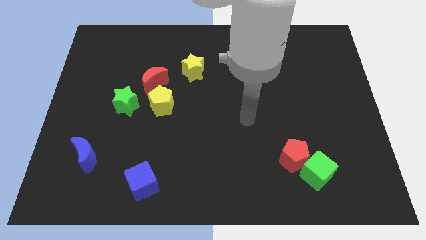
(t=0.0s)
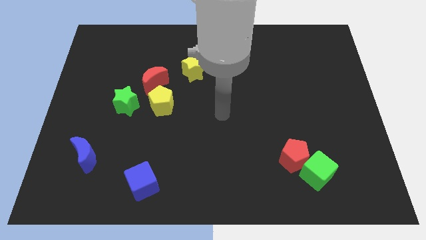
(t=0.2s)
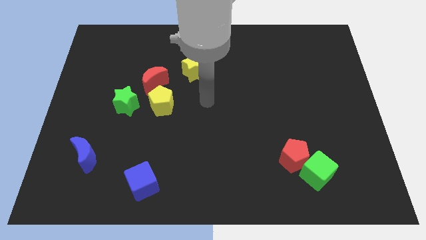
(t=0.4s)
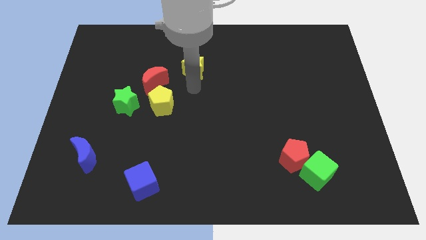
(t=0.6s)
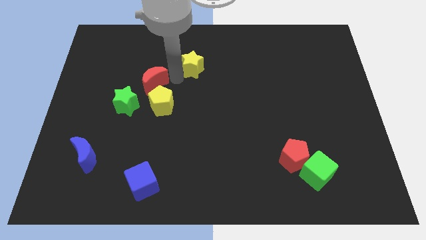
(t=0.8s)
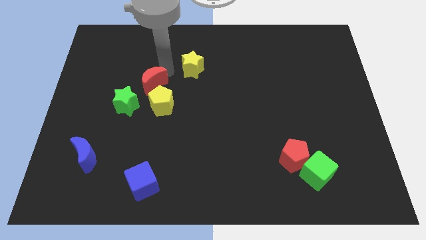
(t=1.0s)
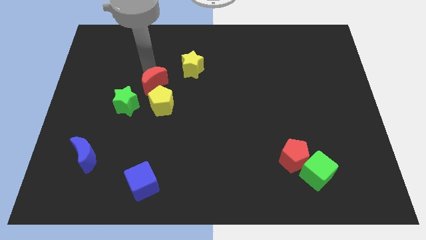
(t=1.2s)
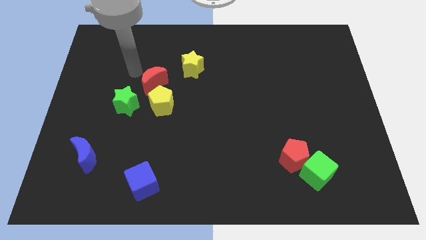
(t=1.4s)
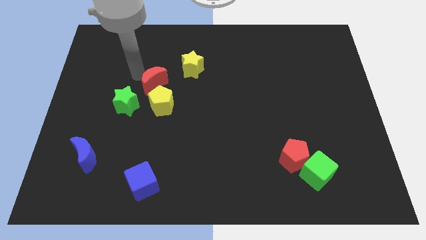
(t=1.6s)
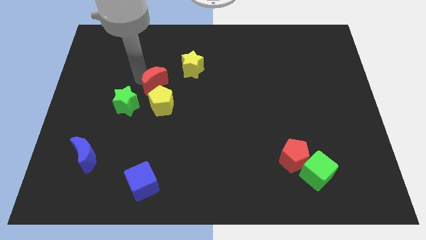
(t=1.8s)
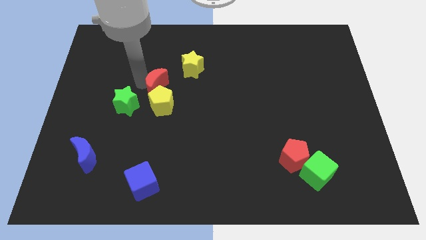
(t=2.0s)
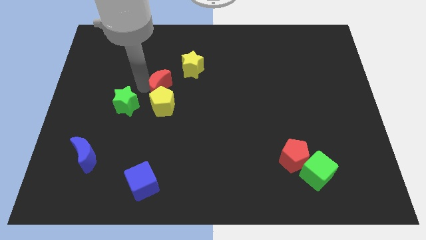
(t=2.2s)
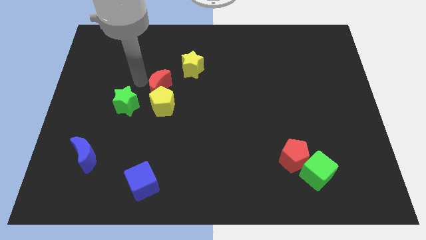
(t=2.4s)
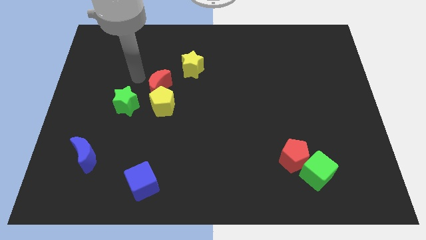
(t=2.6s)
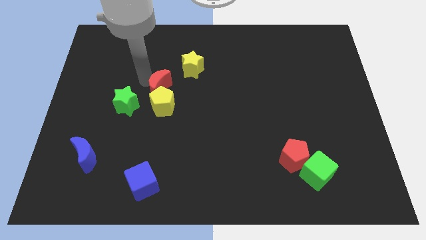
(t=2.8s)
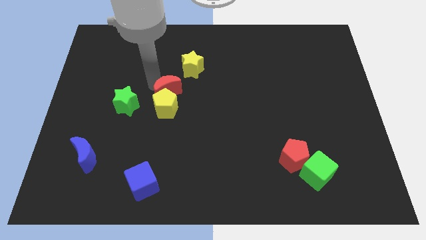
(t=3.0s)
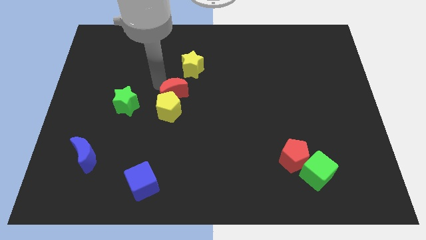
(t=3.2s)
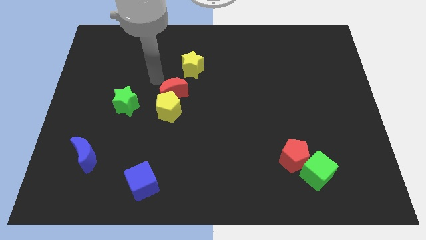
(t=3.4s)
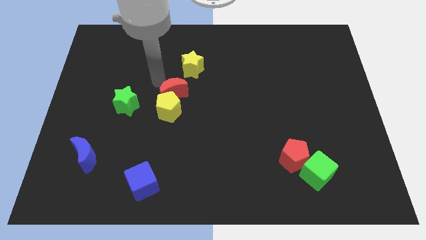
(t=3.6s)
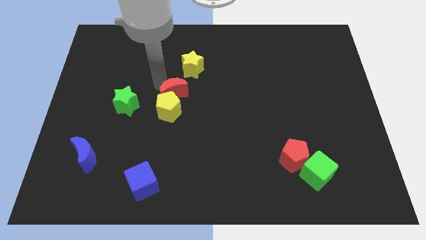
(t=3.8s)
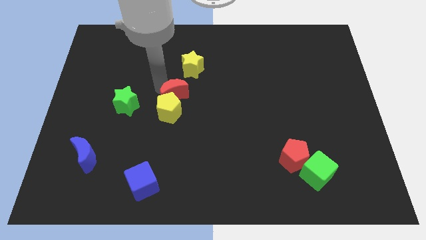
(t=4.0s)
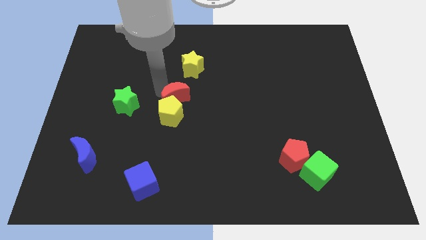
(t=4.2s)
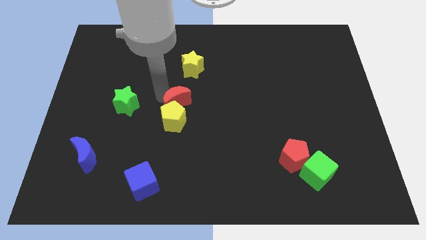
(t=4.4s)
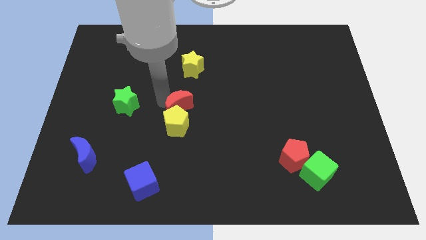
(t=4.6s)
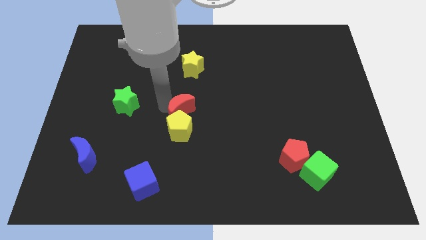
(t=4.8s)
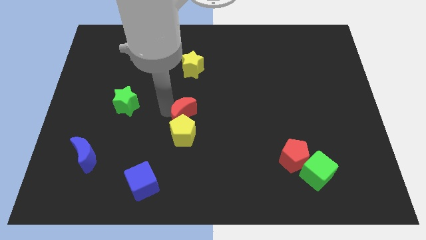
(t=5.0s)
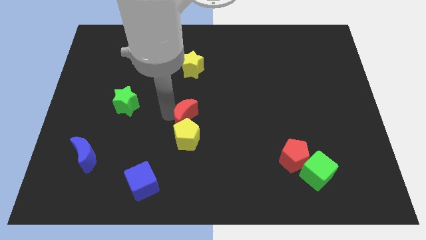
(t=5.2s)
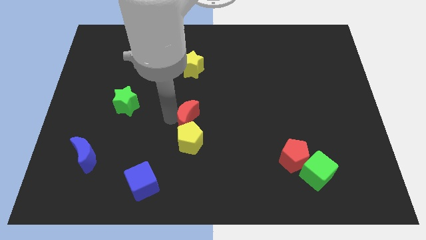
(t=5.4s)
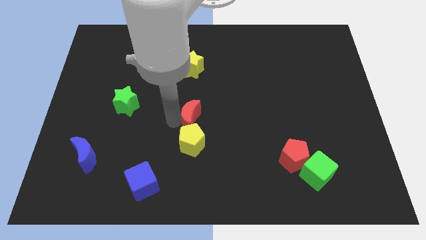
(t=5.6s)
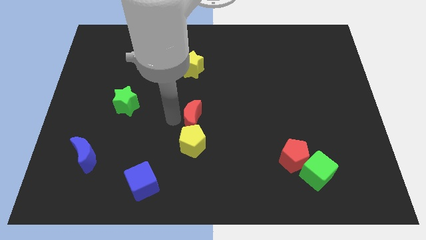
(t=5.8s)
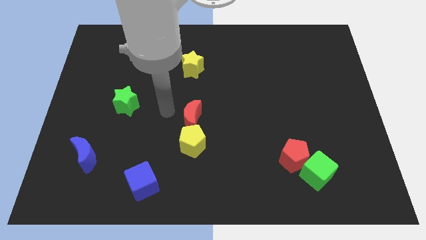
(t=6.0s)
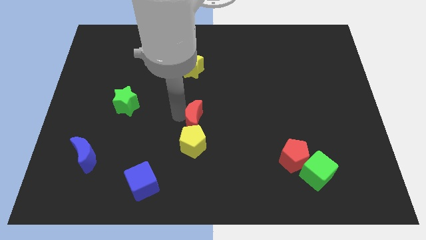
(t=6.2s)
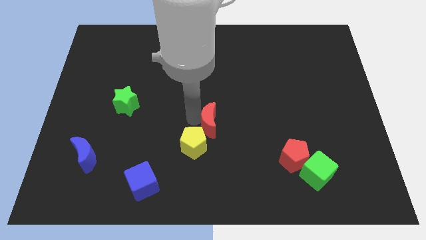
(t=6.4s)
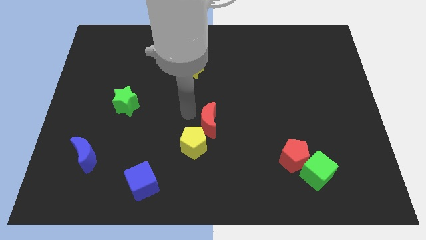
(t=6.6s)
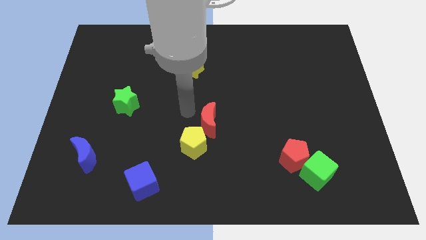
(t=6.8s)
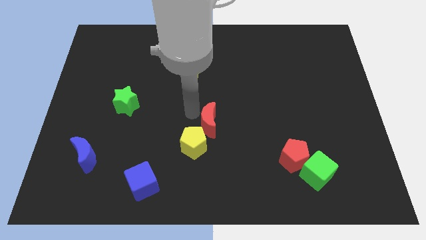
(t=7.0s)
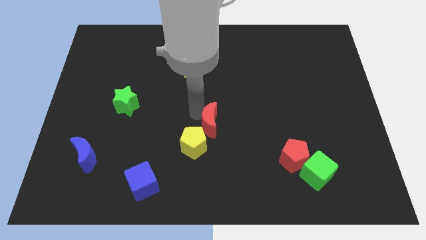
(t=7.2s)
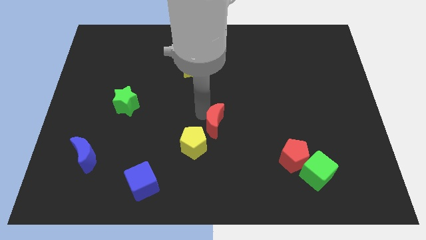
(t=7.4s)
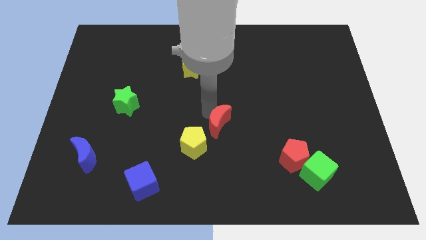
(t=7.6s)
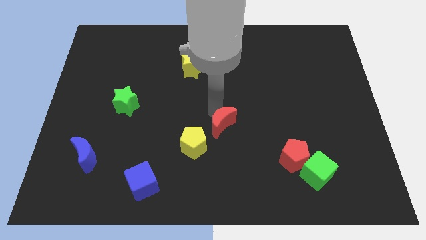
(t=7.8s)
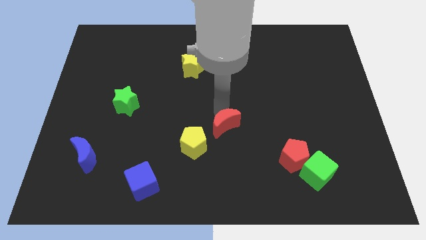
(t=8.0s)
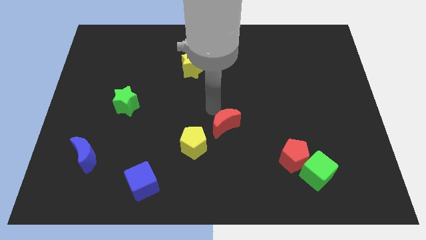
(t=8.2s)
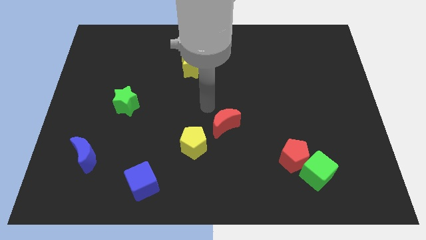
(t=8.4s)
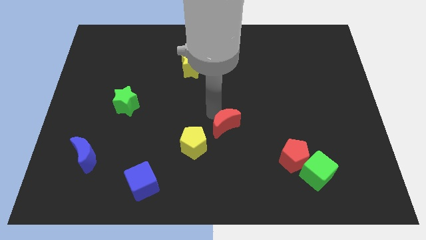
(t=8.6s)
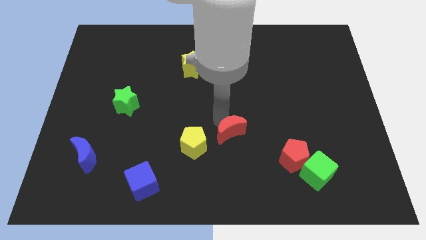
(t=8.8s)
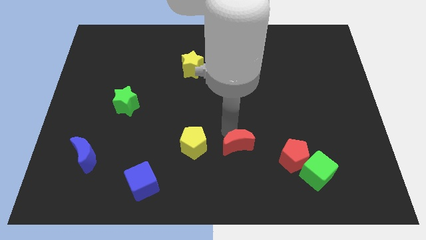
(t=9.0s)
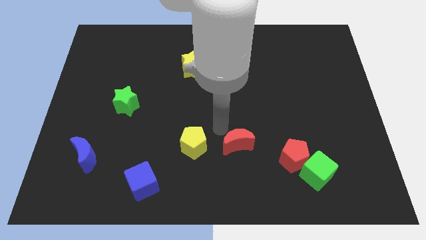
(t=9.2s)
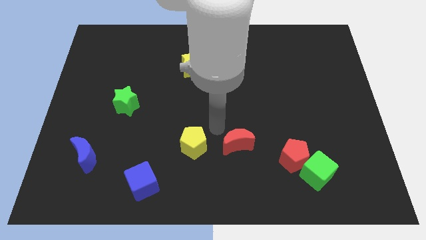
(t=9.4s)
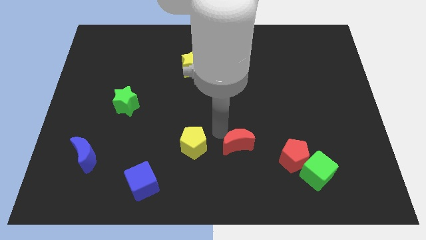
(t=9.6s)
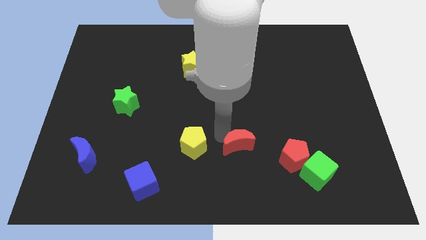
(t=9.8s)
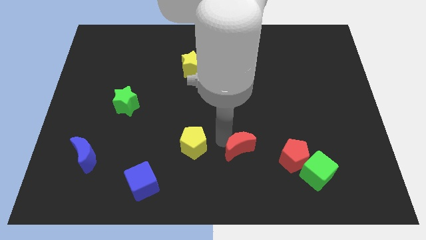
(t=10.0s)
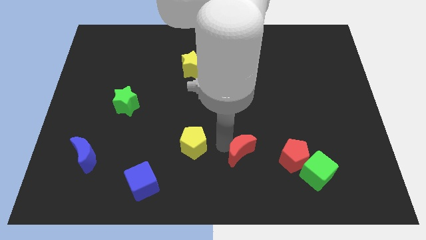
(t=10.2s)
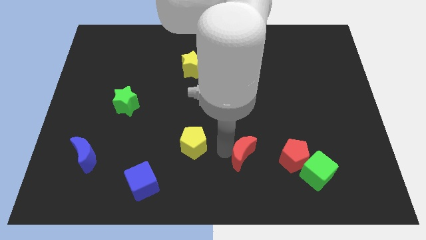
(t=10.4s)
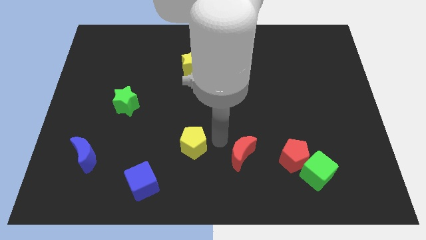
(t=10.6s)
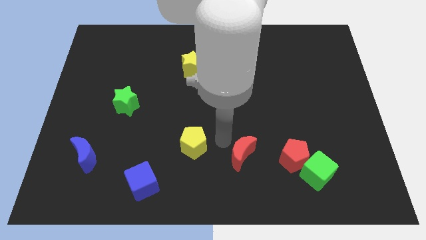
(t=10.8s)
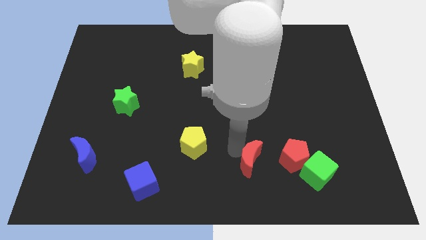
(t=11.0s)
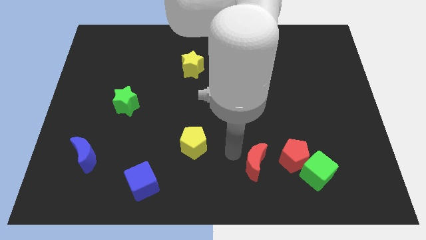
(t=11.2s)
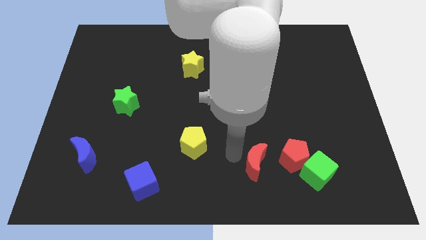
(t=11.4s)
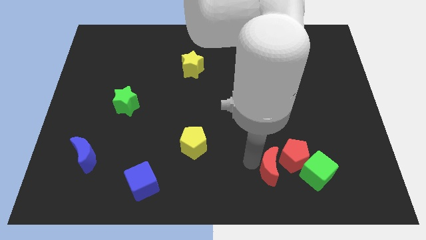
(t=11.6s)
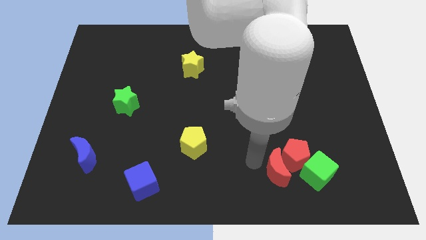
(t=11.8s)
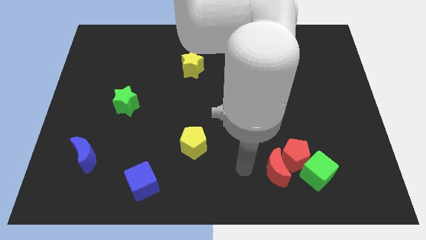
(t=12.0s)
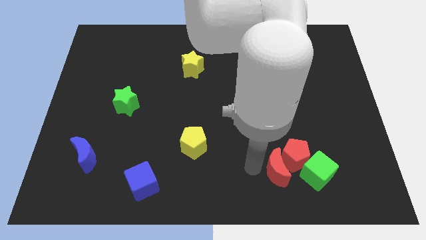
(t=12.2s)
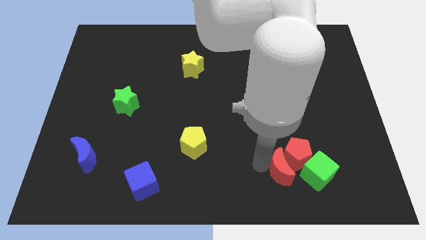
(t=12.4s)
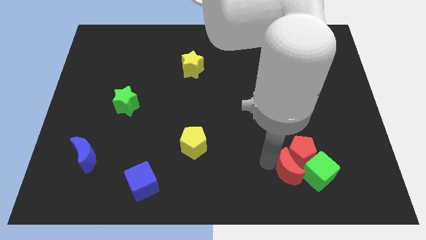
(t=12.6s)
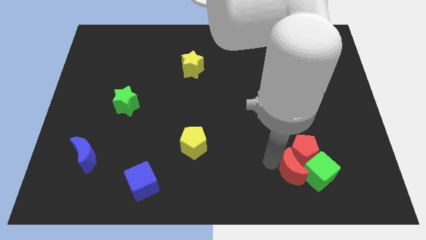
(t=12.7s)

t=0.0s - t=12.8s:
move the red moon to the green cube

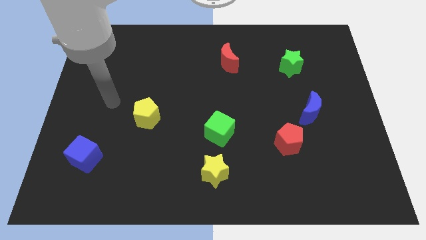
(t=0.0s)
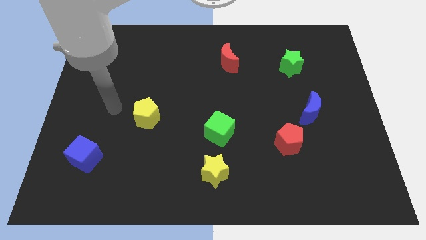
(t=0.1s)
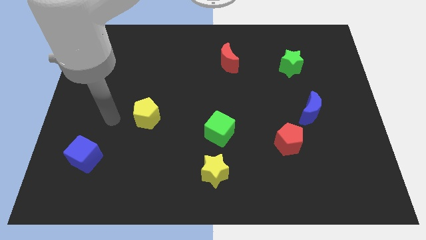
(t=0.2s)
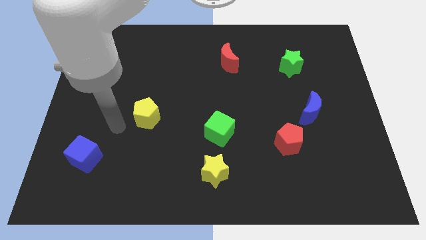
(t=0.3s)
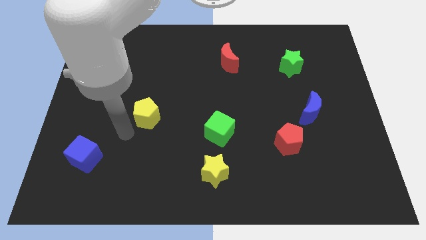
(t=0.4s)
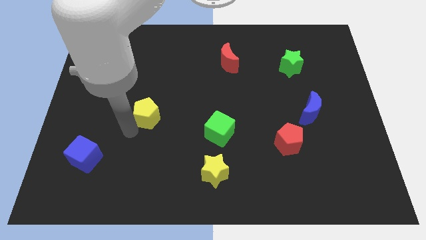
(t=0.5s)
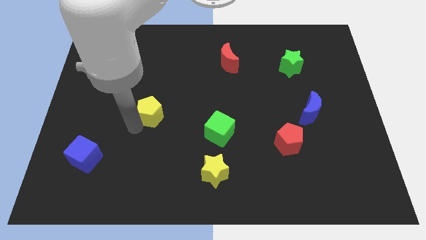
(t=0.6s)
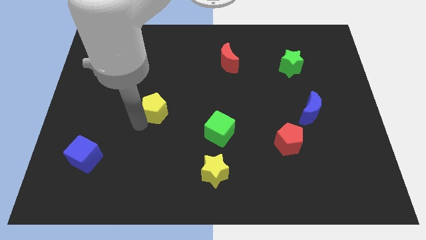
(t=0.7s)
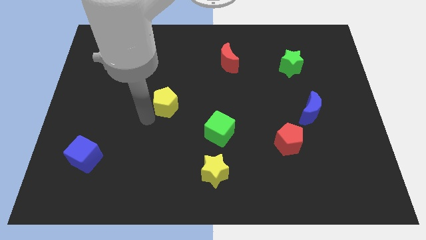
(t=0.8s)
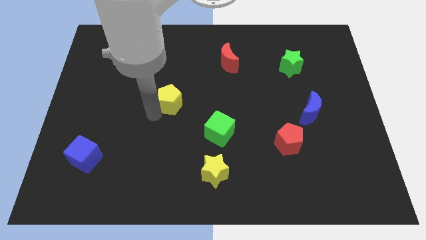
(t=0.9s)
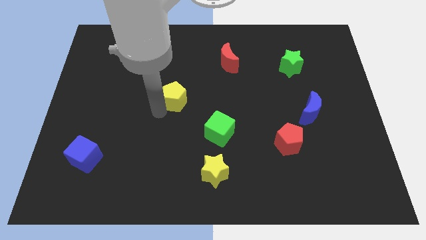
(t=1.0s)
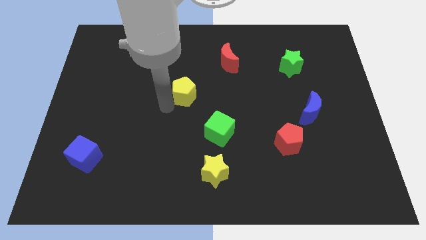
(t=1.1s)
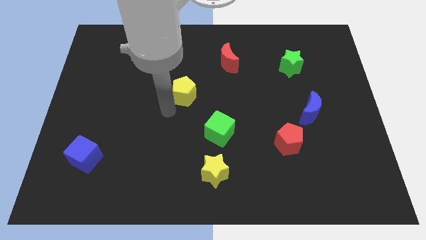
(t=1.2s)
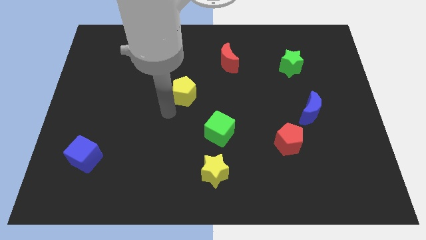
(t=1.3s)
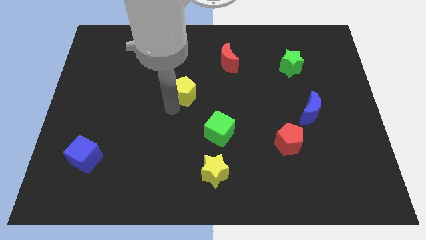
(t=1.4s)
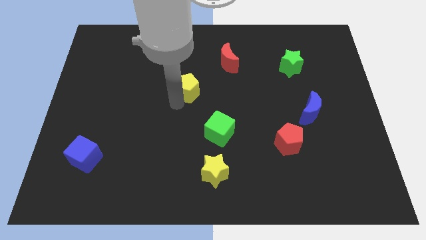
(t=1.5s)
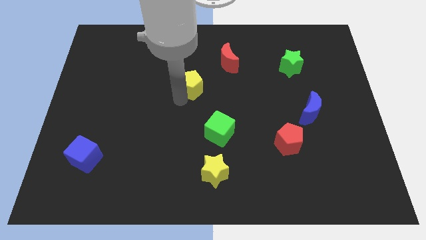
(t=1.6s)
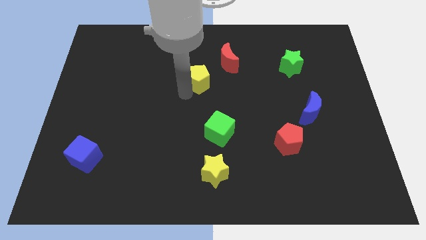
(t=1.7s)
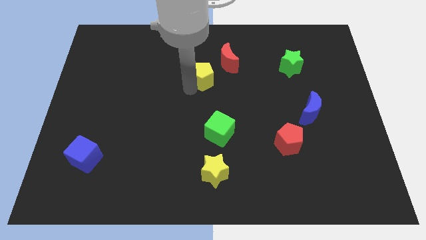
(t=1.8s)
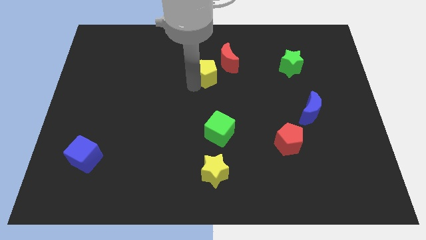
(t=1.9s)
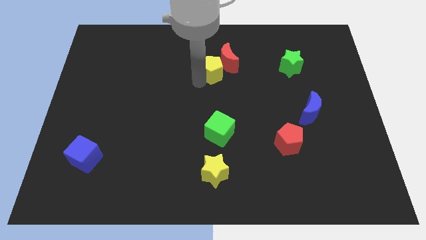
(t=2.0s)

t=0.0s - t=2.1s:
put the yellow pentagon next to the red moon
